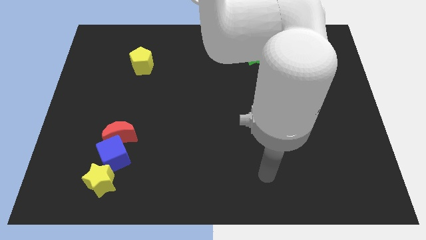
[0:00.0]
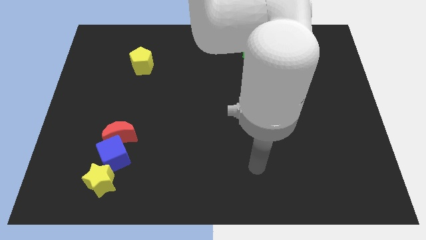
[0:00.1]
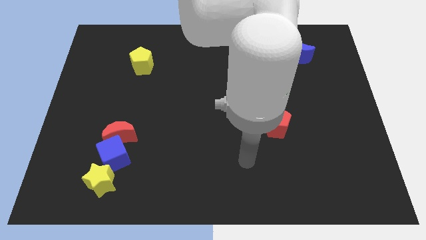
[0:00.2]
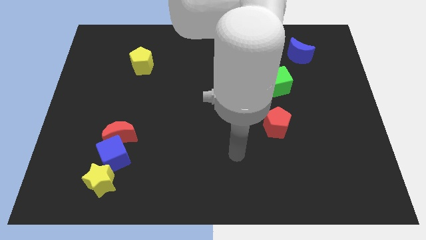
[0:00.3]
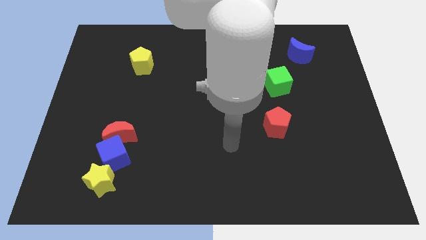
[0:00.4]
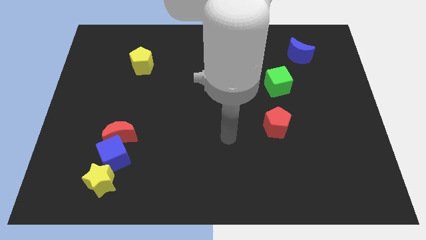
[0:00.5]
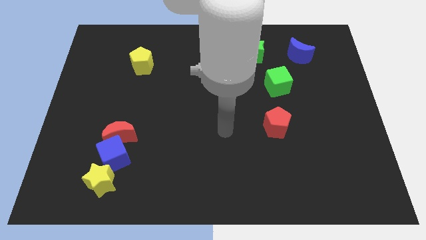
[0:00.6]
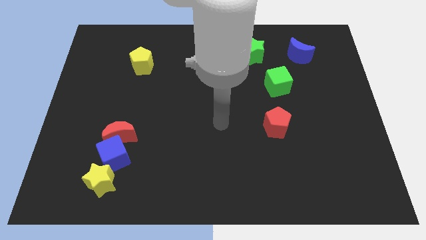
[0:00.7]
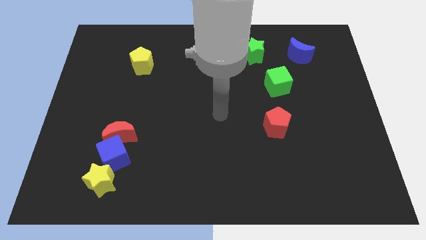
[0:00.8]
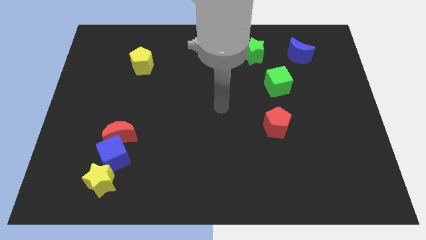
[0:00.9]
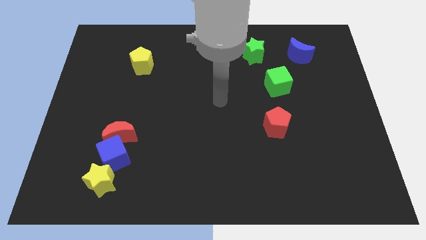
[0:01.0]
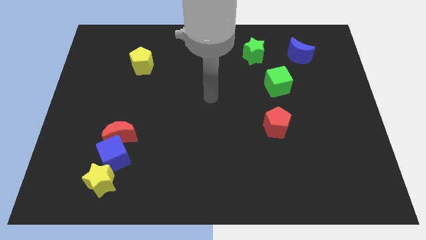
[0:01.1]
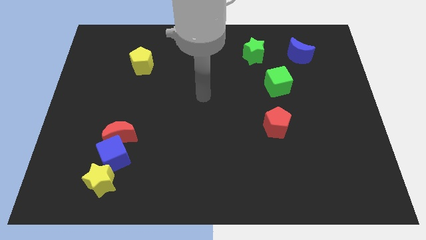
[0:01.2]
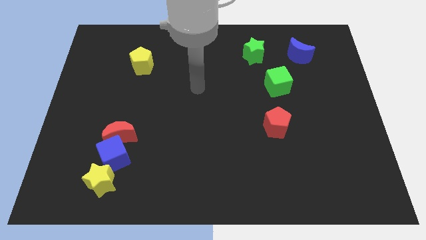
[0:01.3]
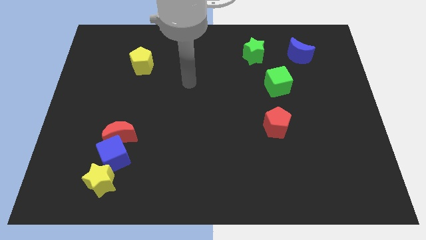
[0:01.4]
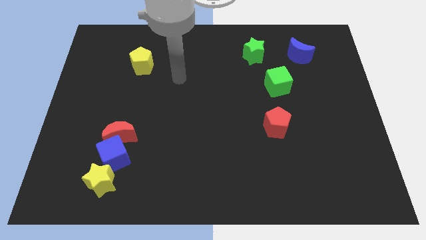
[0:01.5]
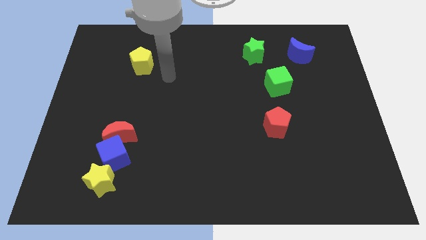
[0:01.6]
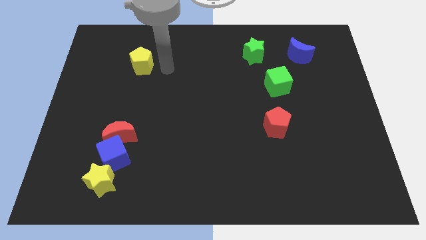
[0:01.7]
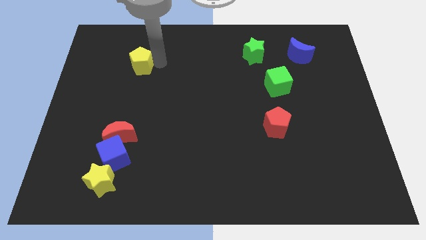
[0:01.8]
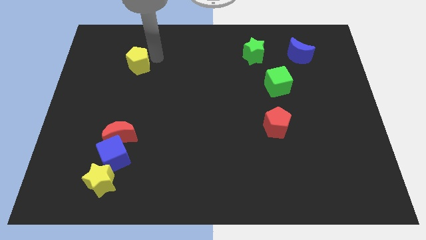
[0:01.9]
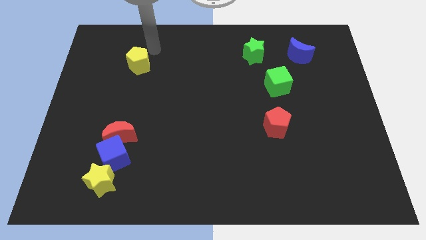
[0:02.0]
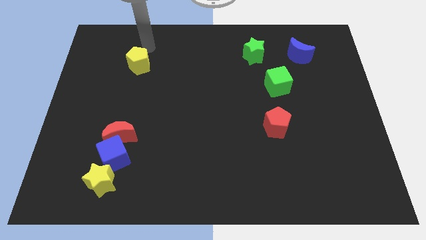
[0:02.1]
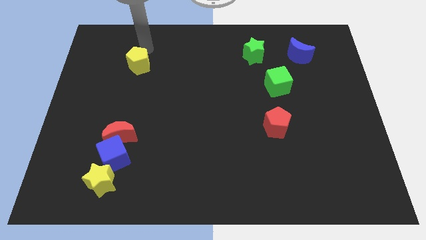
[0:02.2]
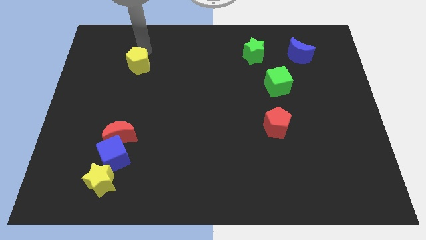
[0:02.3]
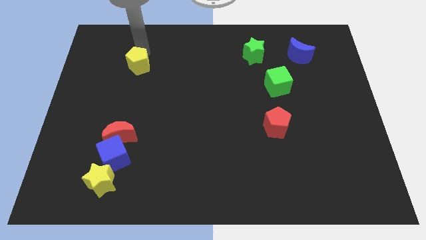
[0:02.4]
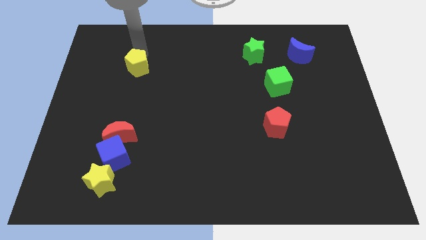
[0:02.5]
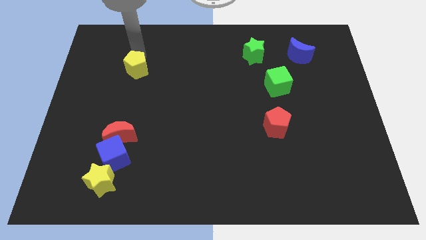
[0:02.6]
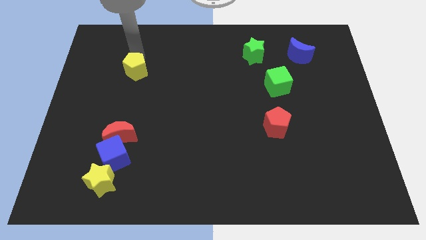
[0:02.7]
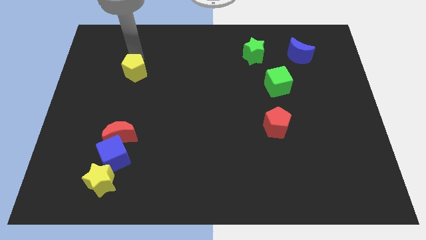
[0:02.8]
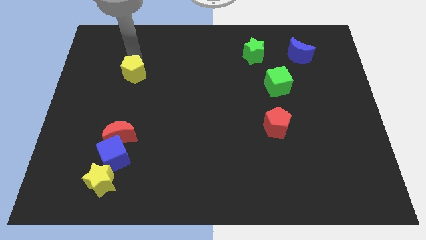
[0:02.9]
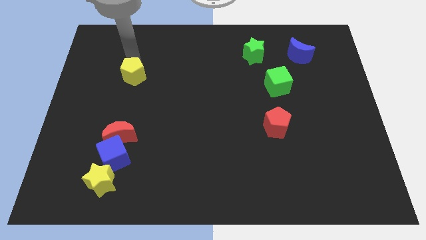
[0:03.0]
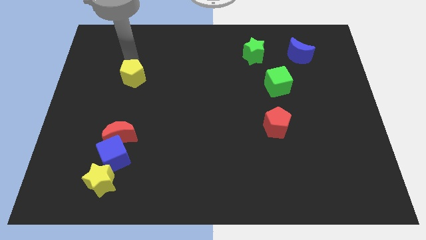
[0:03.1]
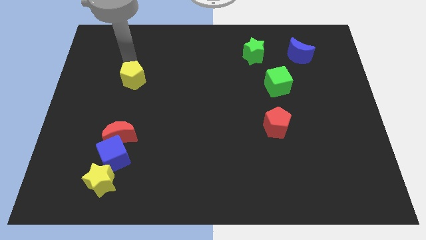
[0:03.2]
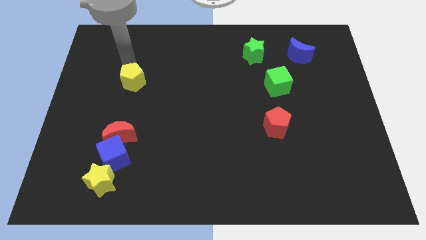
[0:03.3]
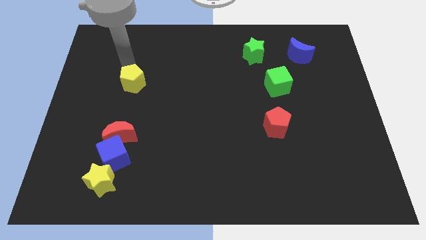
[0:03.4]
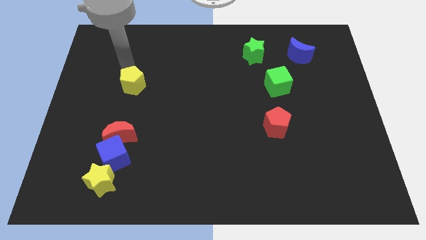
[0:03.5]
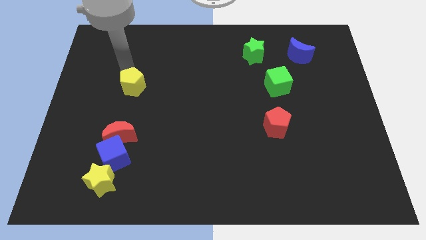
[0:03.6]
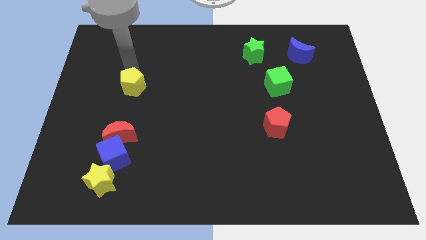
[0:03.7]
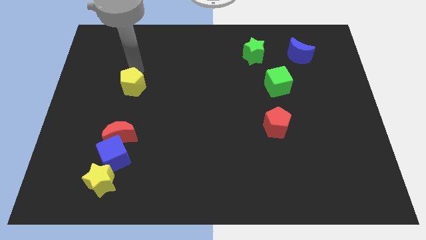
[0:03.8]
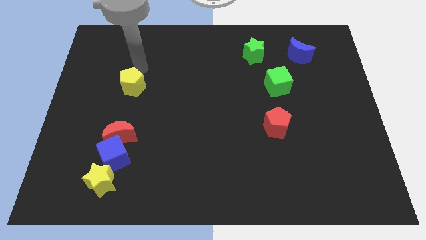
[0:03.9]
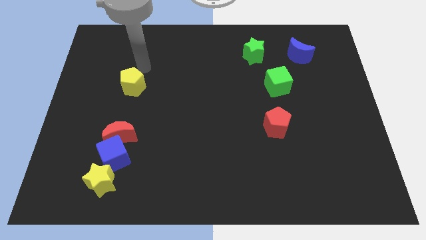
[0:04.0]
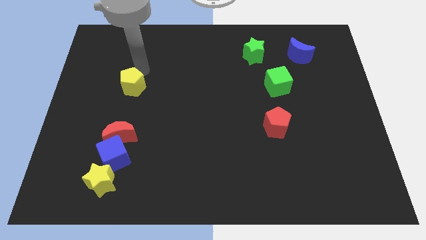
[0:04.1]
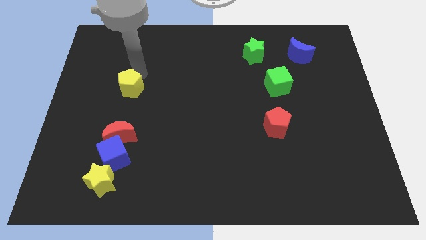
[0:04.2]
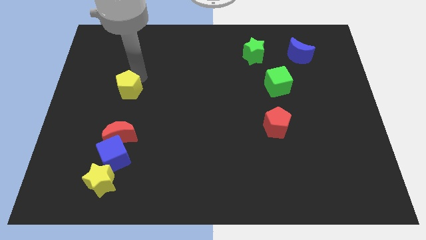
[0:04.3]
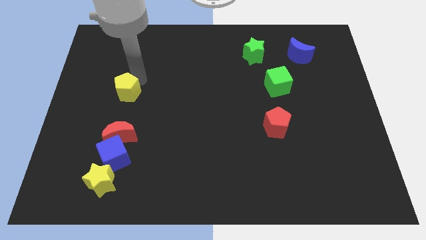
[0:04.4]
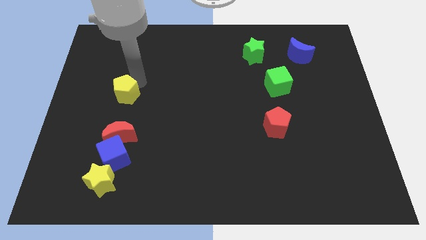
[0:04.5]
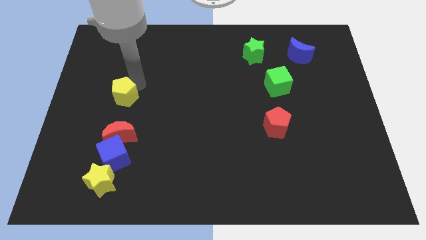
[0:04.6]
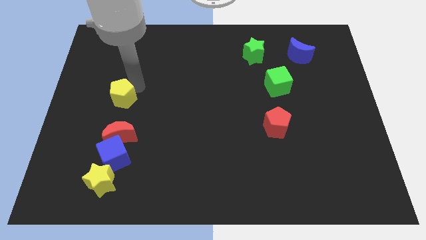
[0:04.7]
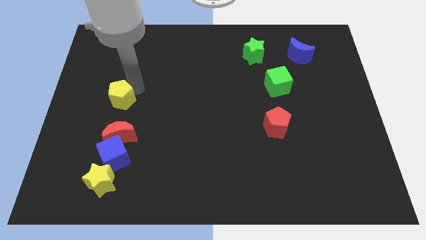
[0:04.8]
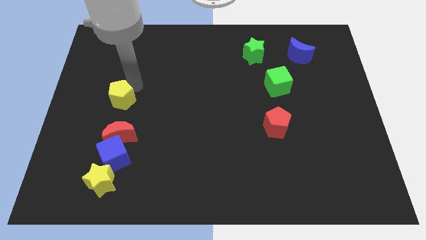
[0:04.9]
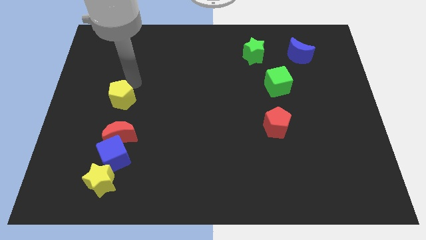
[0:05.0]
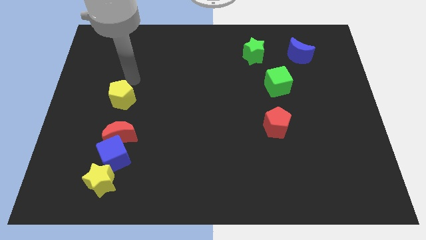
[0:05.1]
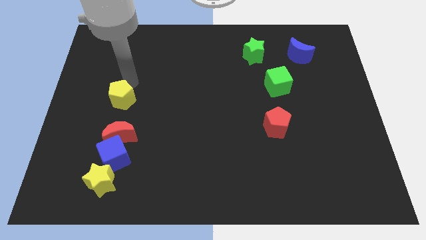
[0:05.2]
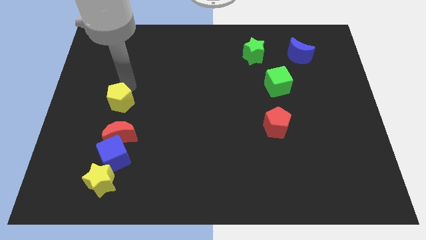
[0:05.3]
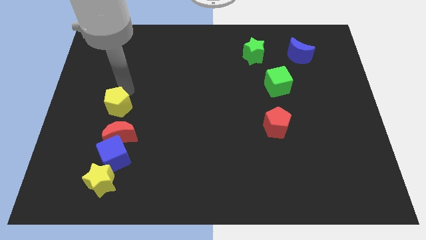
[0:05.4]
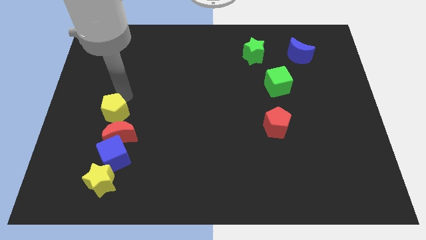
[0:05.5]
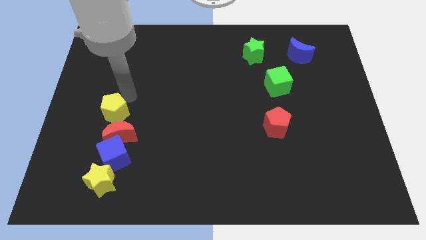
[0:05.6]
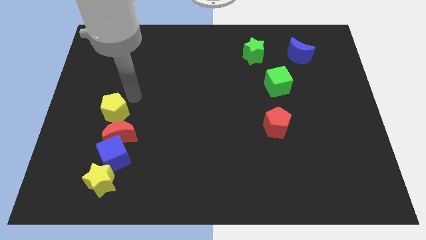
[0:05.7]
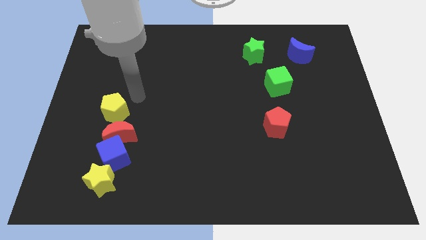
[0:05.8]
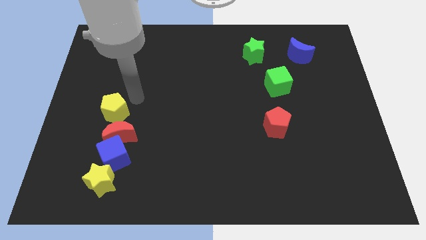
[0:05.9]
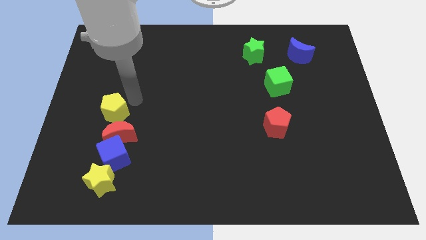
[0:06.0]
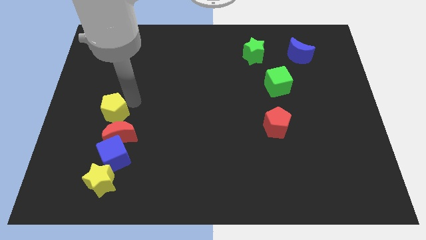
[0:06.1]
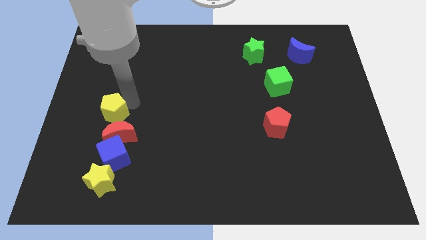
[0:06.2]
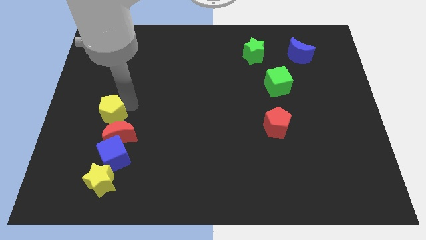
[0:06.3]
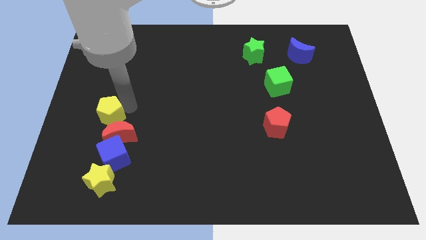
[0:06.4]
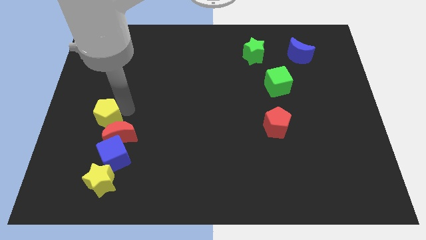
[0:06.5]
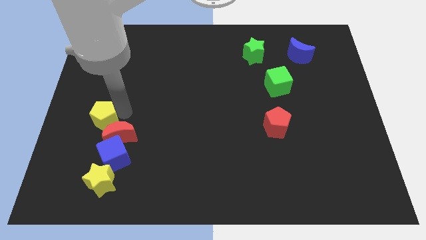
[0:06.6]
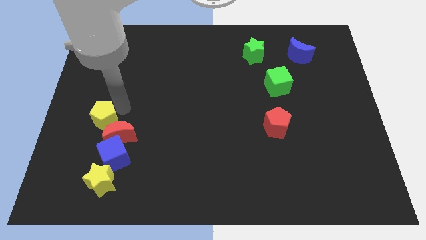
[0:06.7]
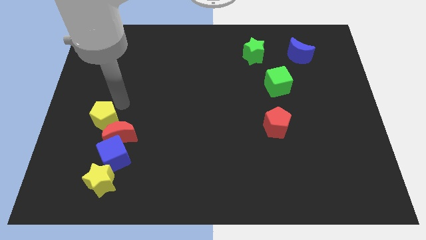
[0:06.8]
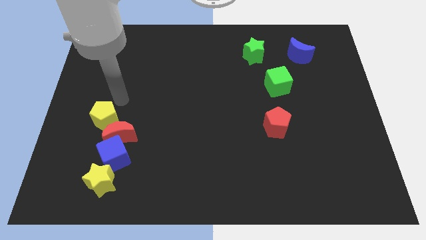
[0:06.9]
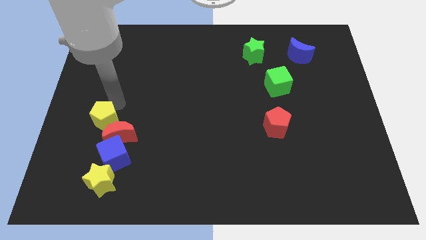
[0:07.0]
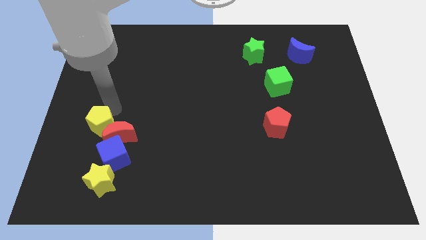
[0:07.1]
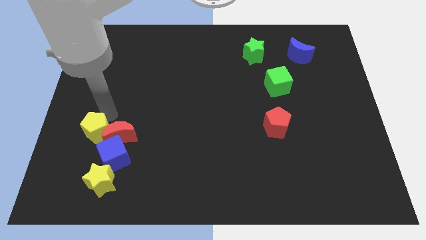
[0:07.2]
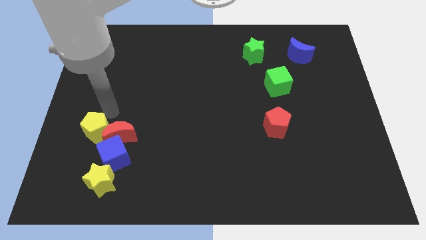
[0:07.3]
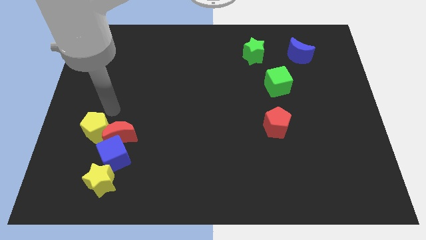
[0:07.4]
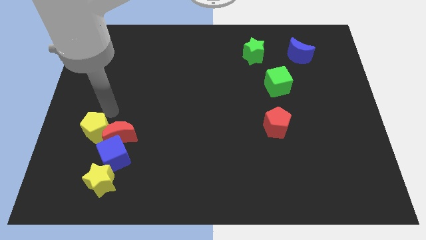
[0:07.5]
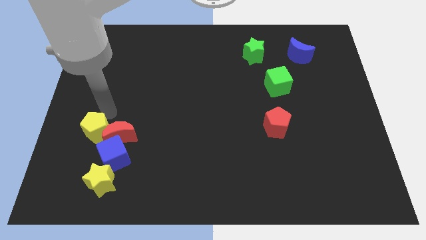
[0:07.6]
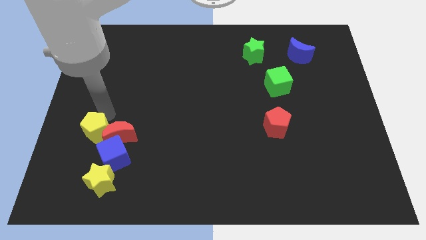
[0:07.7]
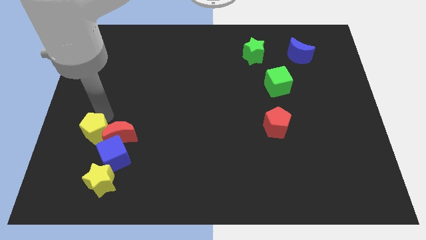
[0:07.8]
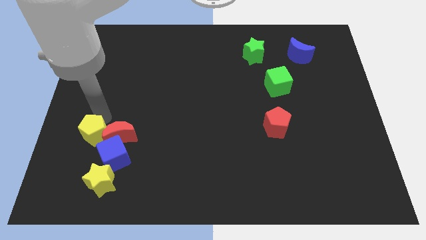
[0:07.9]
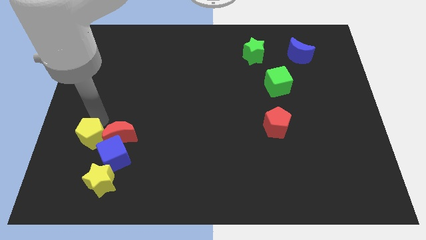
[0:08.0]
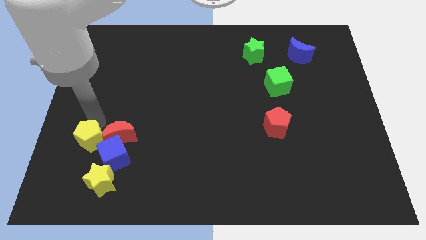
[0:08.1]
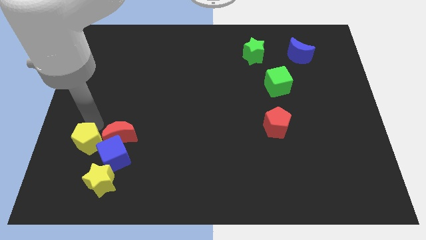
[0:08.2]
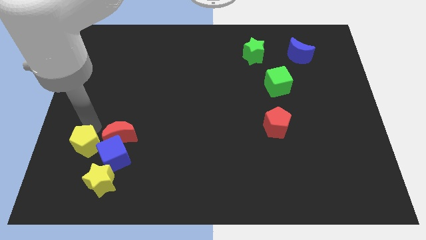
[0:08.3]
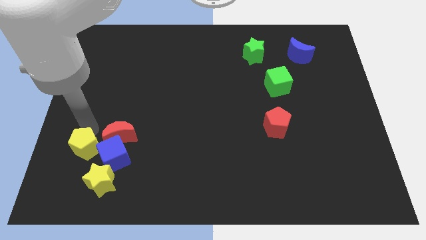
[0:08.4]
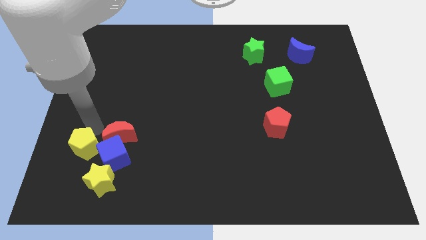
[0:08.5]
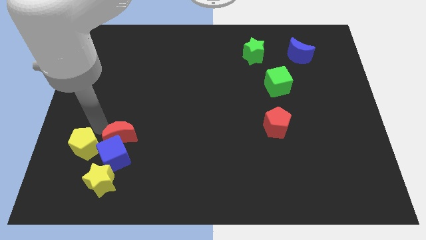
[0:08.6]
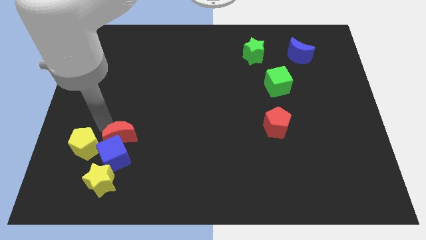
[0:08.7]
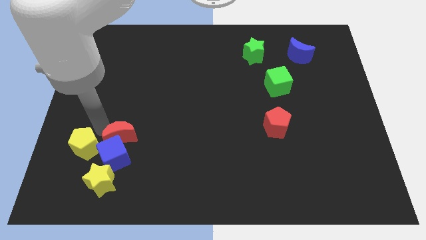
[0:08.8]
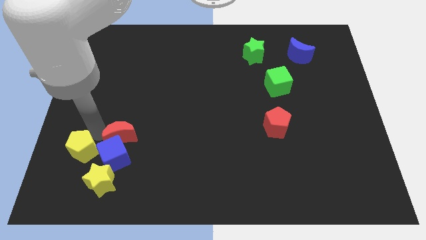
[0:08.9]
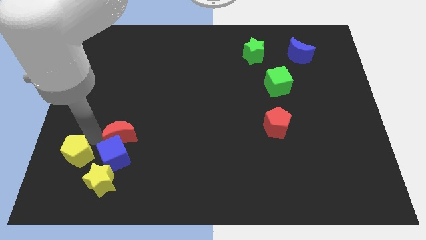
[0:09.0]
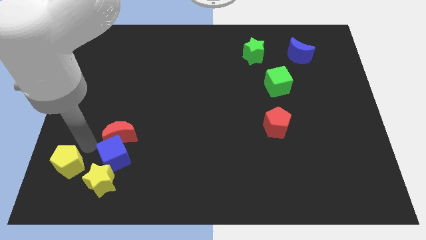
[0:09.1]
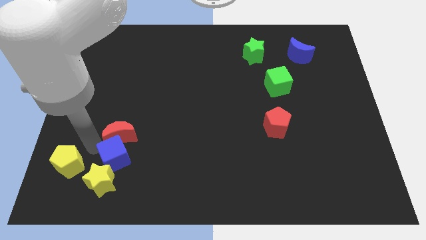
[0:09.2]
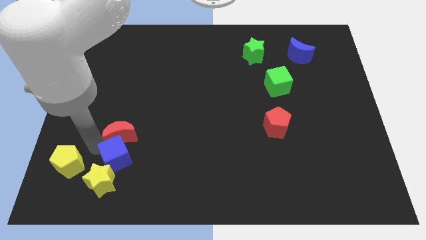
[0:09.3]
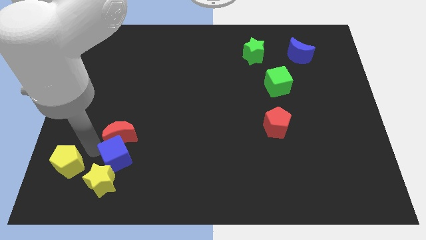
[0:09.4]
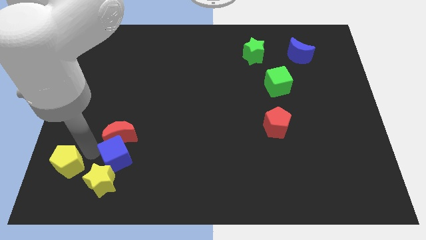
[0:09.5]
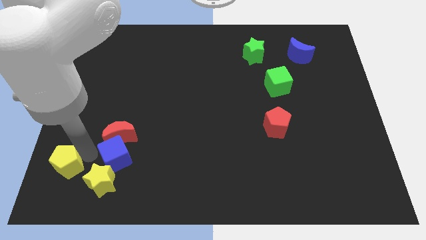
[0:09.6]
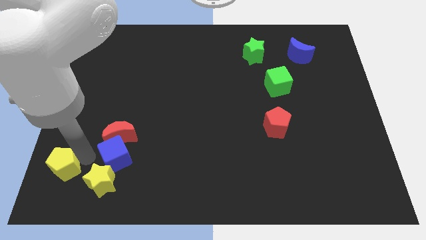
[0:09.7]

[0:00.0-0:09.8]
move the yellow pentagon to the lower left corner
